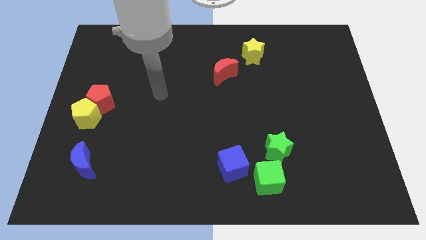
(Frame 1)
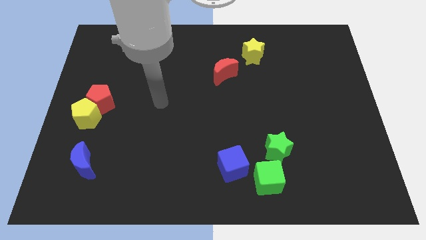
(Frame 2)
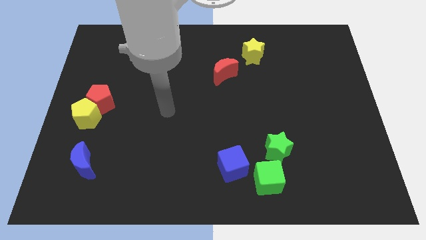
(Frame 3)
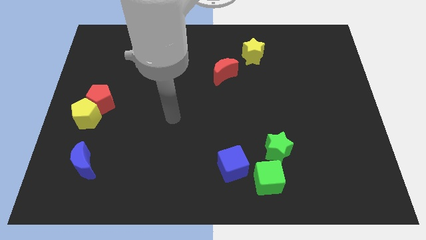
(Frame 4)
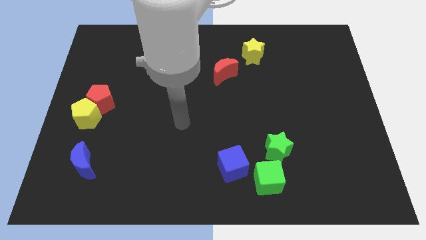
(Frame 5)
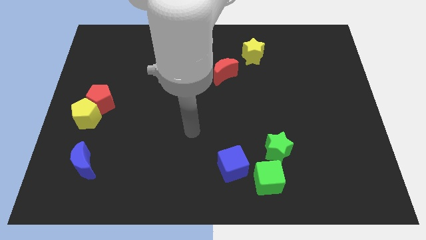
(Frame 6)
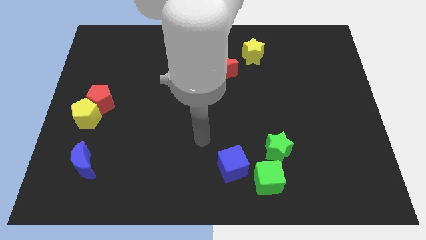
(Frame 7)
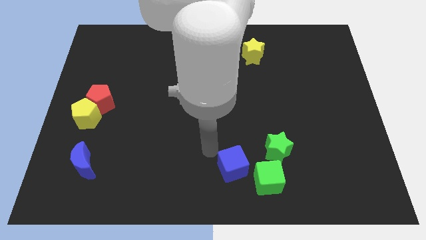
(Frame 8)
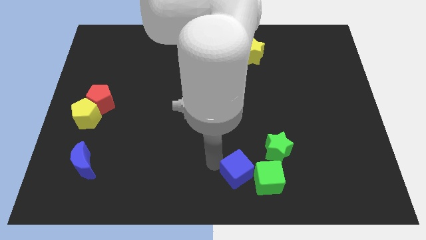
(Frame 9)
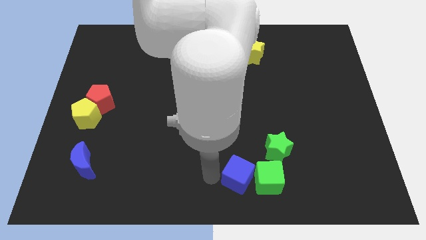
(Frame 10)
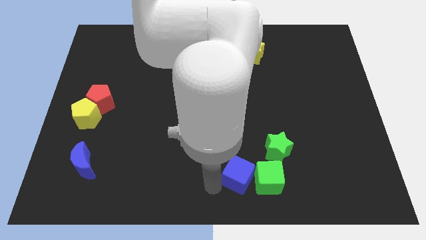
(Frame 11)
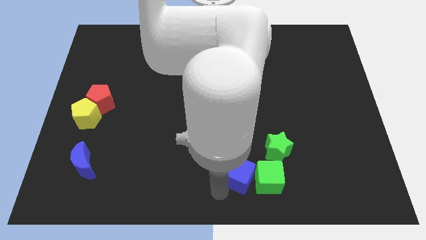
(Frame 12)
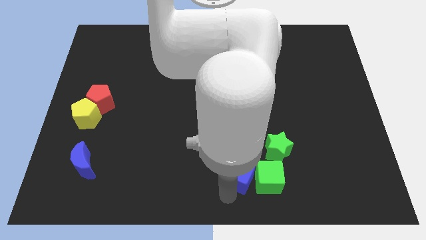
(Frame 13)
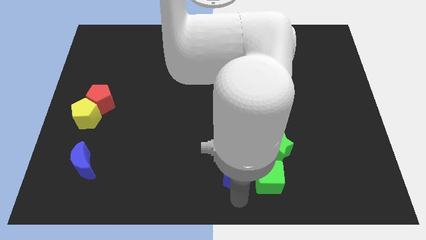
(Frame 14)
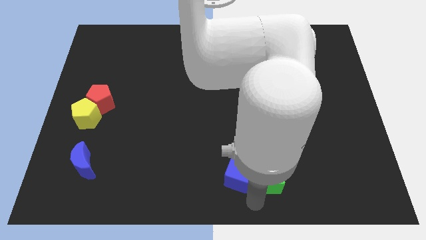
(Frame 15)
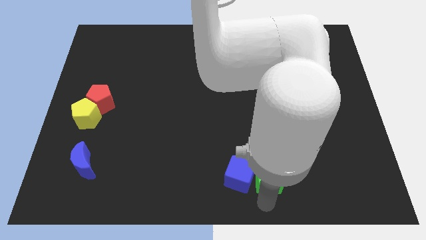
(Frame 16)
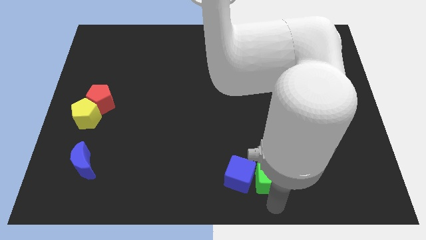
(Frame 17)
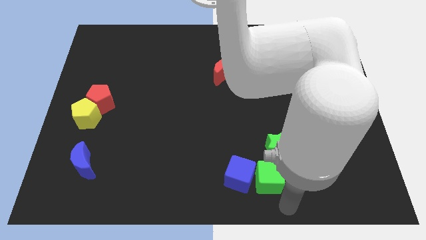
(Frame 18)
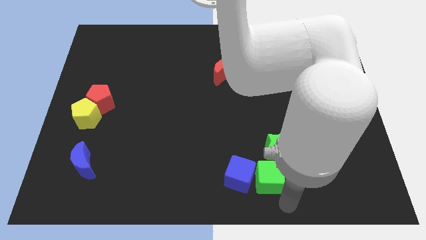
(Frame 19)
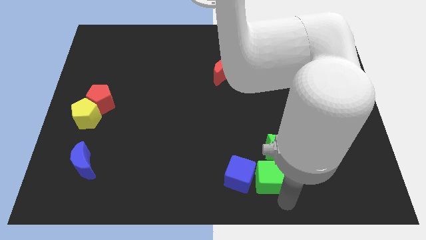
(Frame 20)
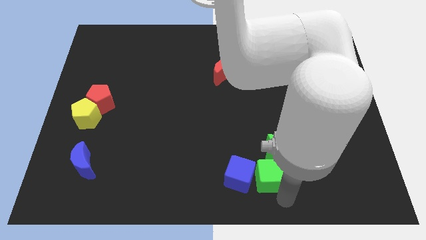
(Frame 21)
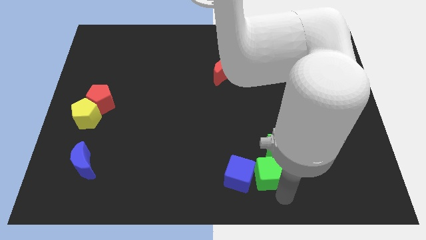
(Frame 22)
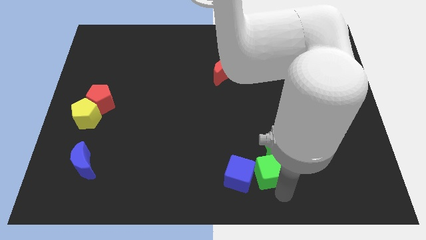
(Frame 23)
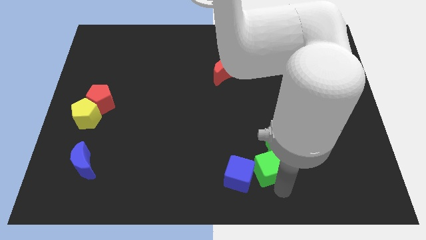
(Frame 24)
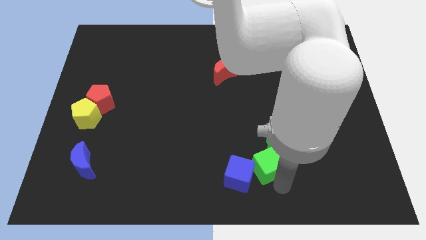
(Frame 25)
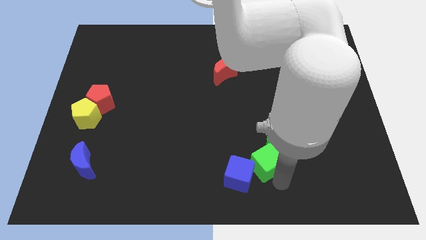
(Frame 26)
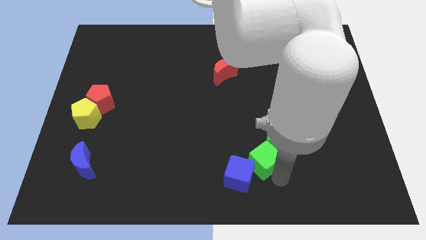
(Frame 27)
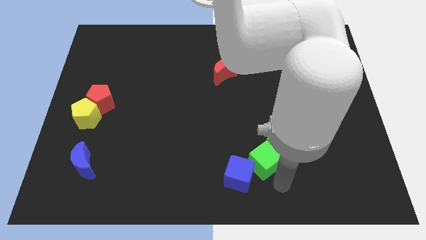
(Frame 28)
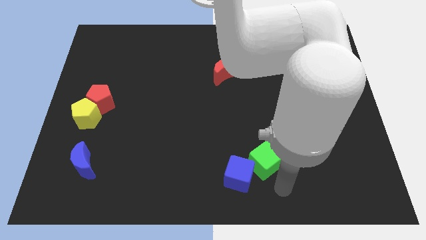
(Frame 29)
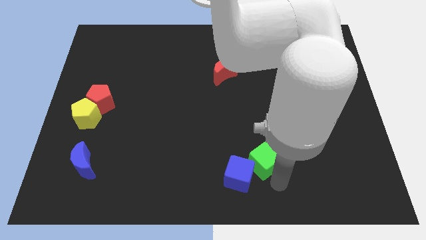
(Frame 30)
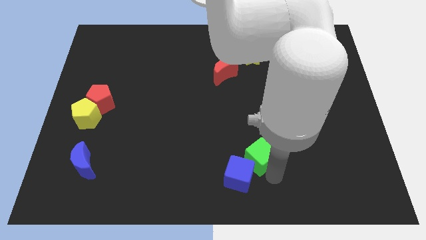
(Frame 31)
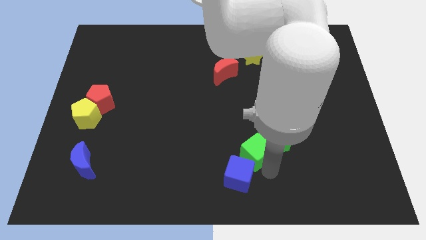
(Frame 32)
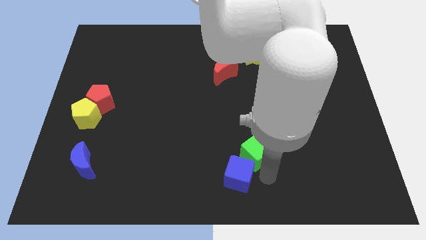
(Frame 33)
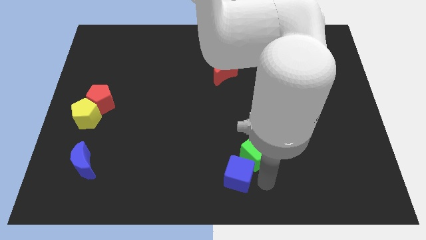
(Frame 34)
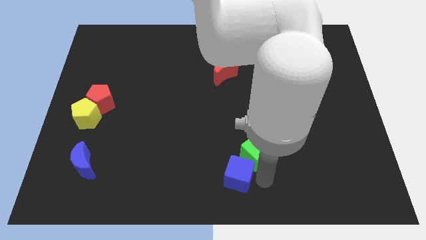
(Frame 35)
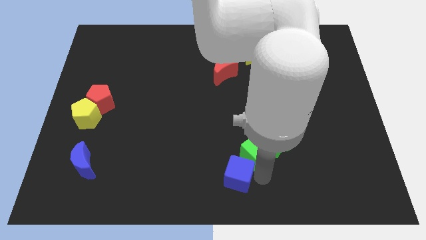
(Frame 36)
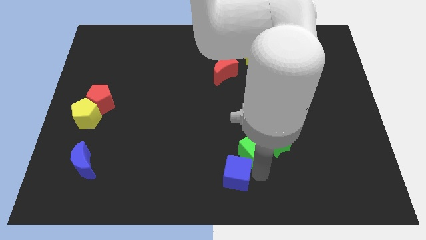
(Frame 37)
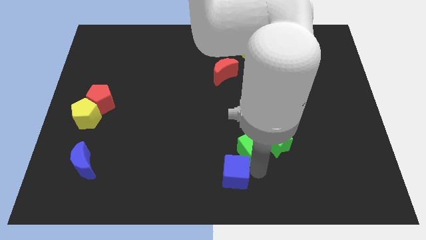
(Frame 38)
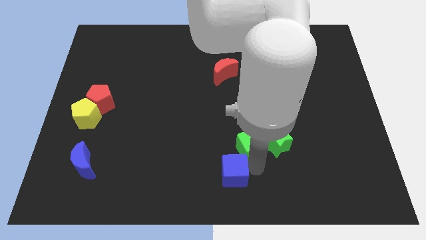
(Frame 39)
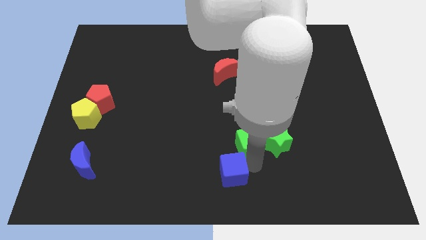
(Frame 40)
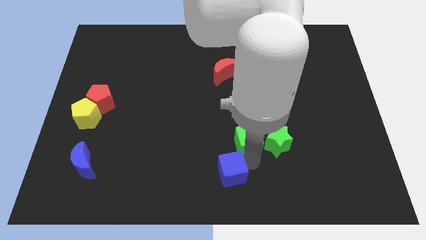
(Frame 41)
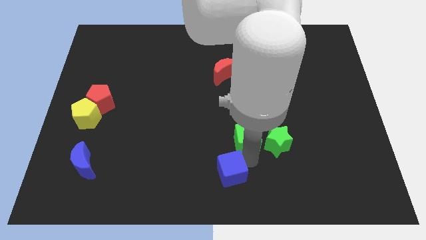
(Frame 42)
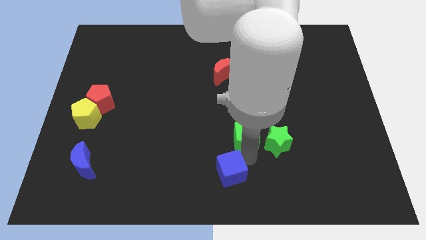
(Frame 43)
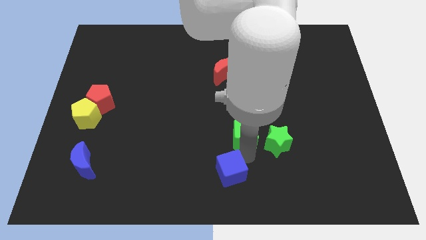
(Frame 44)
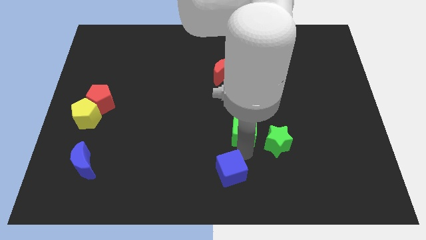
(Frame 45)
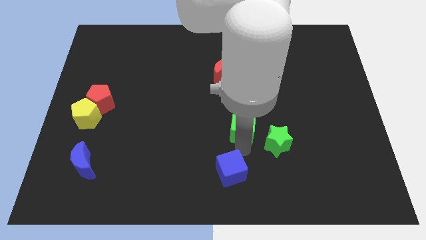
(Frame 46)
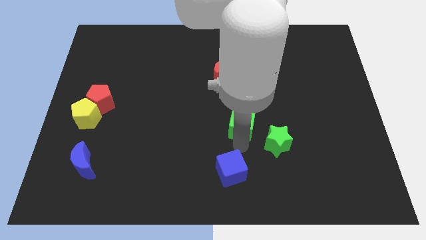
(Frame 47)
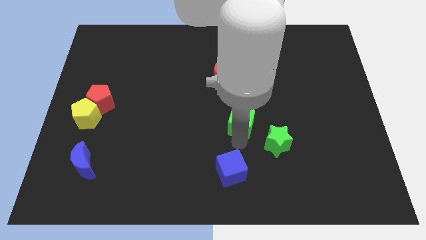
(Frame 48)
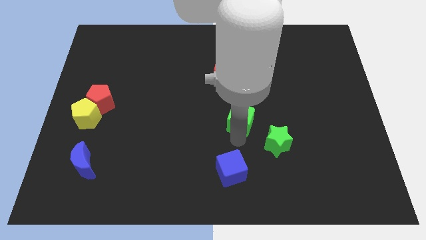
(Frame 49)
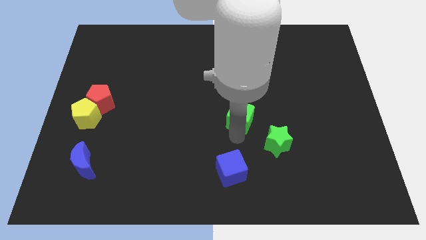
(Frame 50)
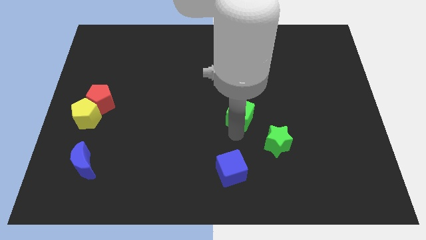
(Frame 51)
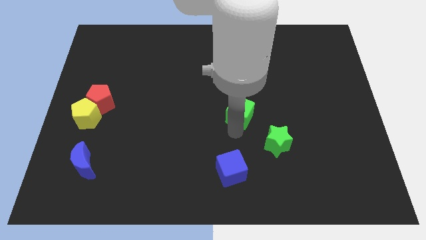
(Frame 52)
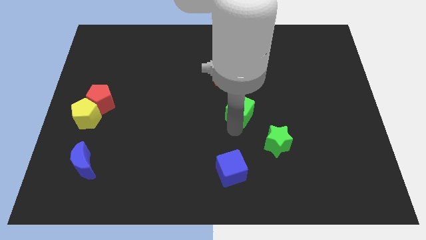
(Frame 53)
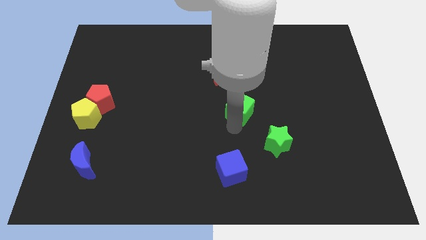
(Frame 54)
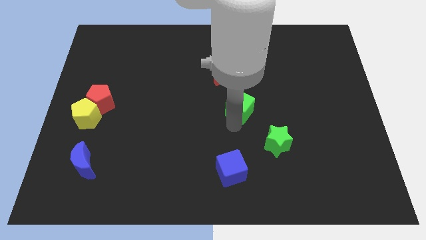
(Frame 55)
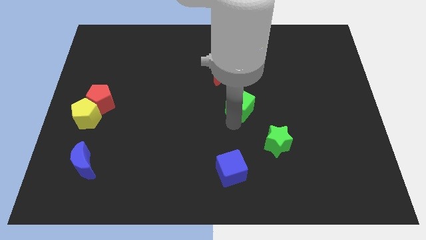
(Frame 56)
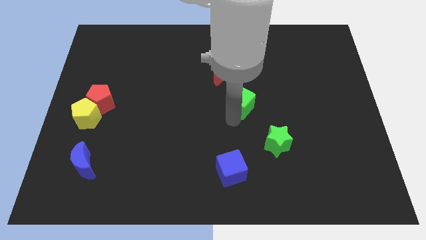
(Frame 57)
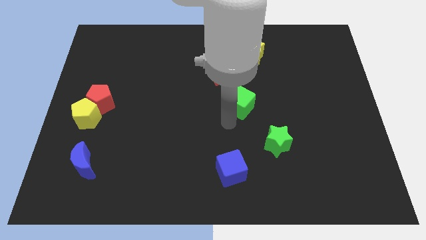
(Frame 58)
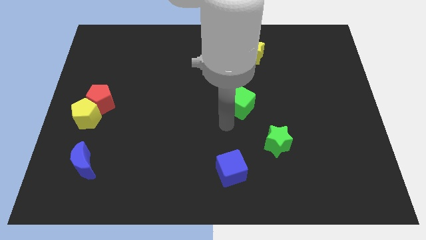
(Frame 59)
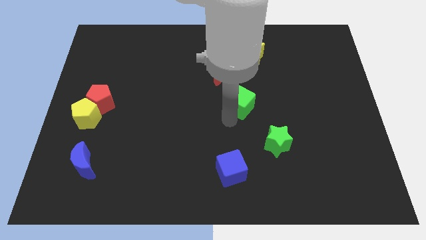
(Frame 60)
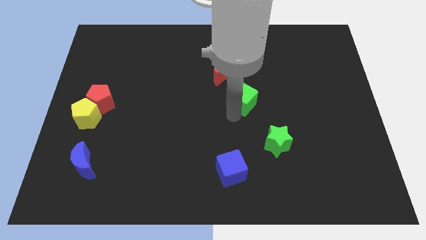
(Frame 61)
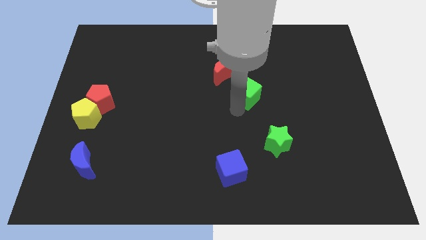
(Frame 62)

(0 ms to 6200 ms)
slide the green cube to the bottom side of the yellow star

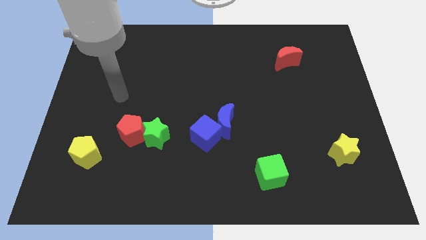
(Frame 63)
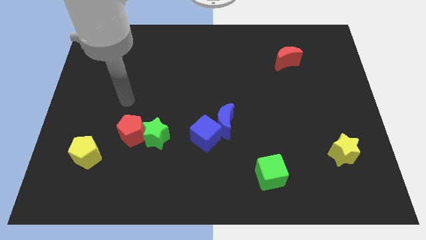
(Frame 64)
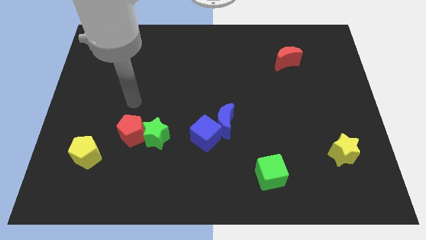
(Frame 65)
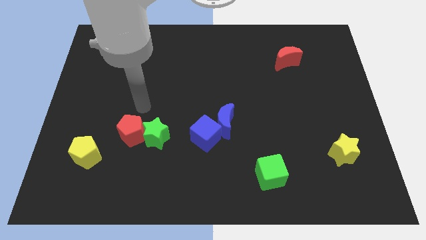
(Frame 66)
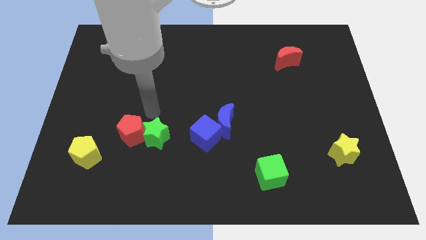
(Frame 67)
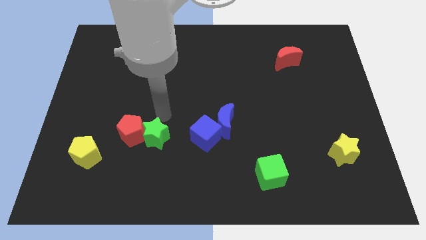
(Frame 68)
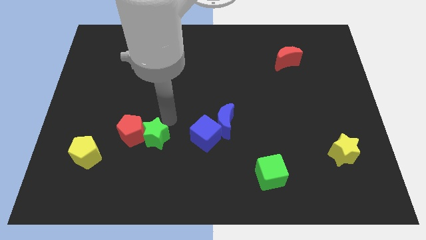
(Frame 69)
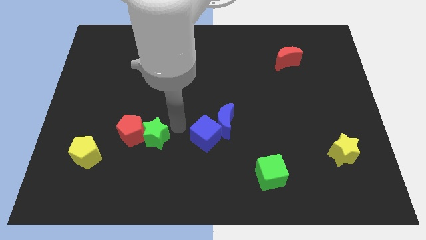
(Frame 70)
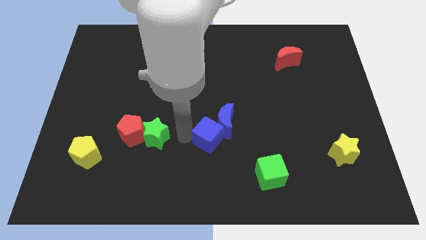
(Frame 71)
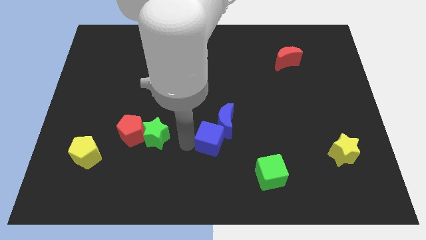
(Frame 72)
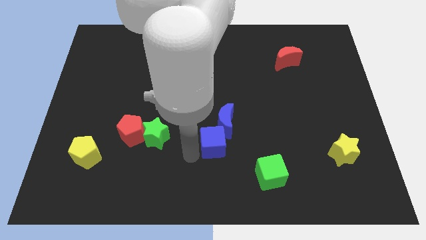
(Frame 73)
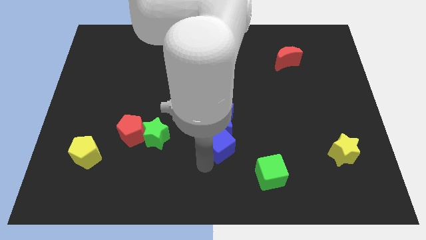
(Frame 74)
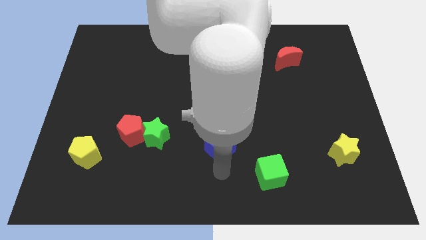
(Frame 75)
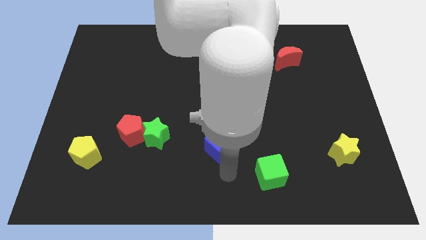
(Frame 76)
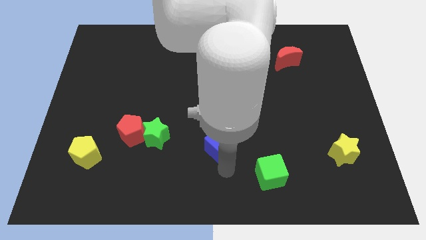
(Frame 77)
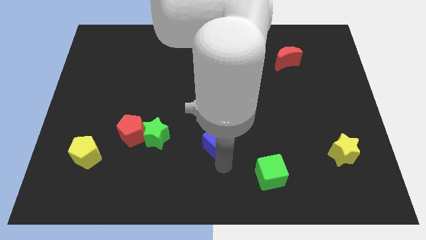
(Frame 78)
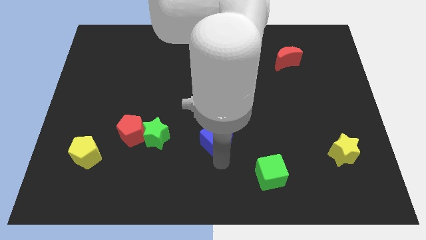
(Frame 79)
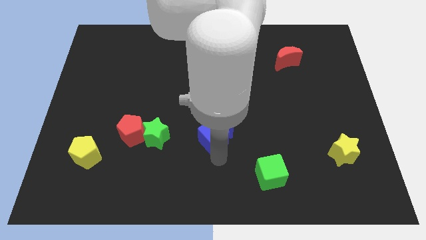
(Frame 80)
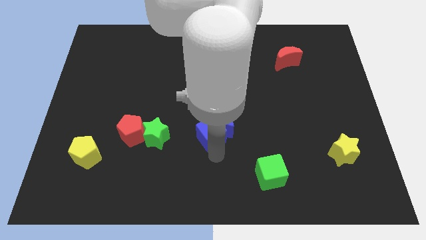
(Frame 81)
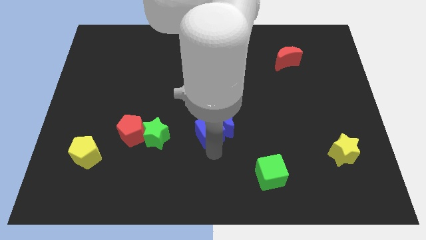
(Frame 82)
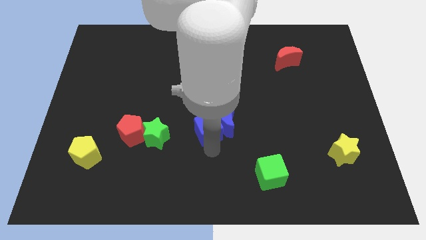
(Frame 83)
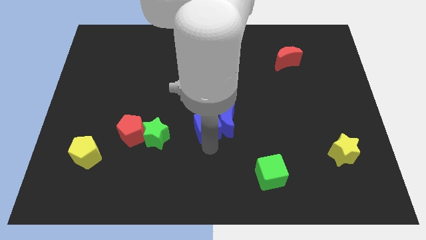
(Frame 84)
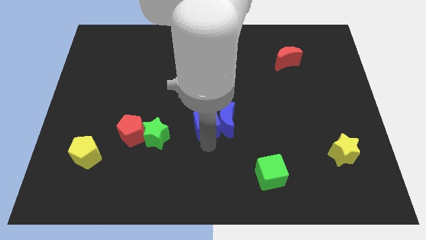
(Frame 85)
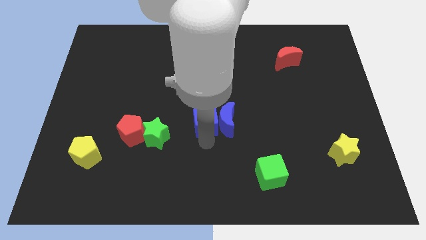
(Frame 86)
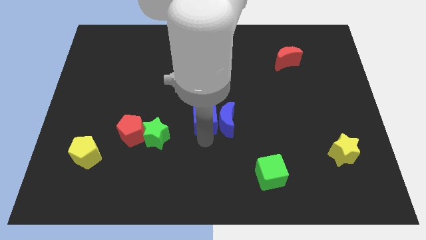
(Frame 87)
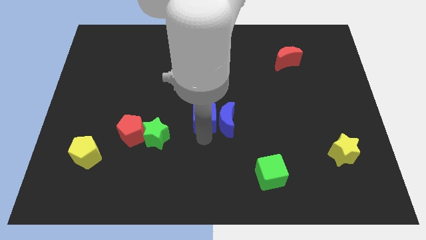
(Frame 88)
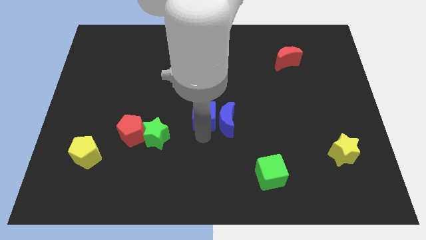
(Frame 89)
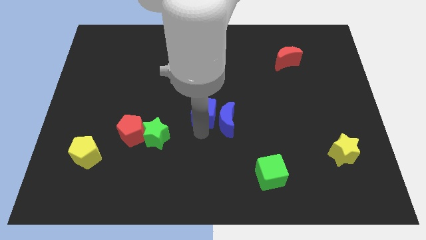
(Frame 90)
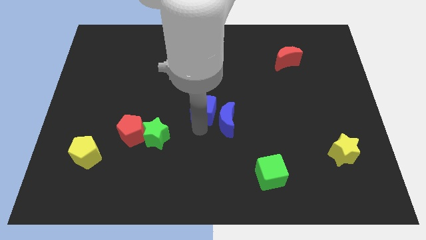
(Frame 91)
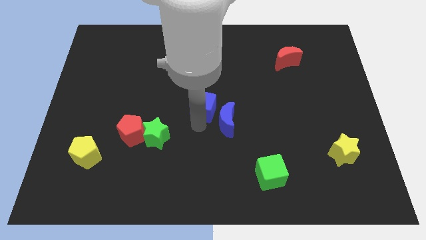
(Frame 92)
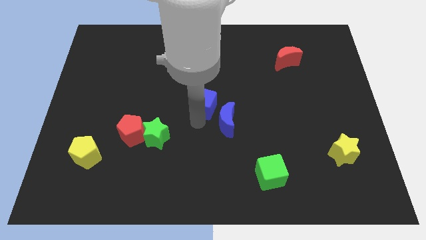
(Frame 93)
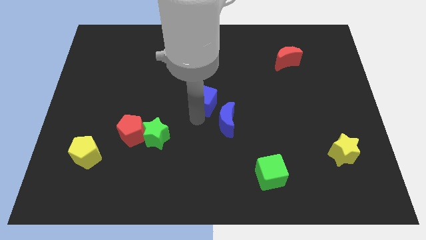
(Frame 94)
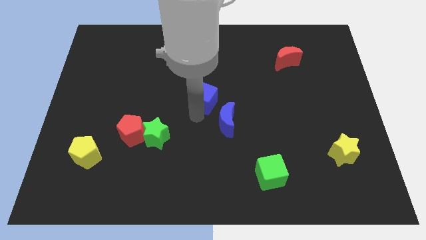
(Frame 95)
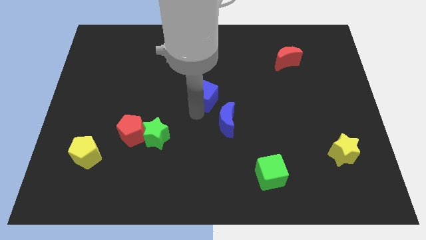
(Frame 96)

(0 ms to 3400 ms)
slide the blue cube above the blue moon
